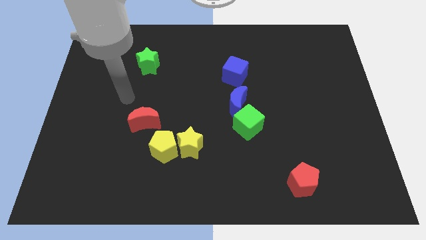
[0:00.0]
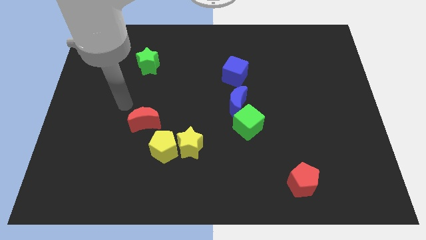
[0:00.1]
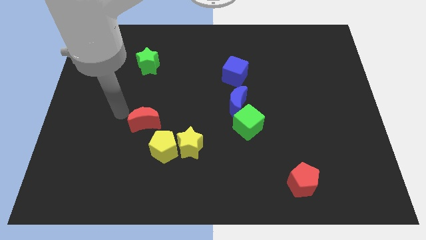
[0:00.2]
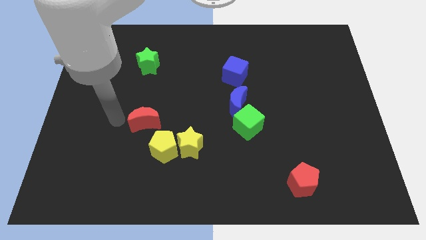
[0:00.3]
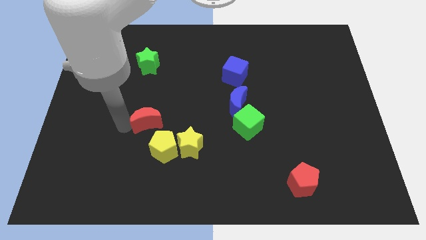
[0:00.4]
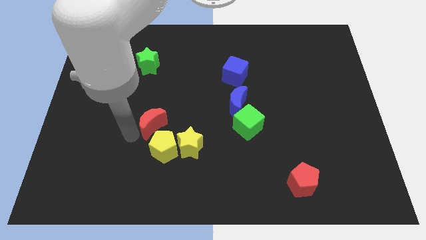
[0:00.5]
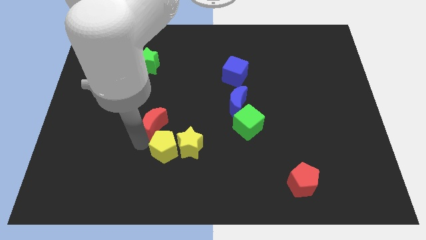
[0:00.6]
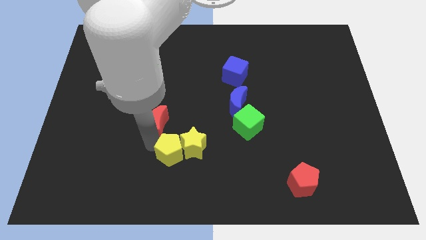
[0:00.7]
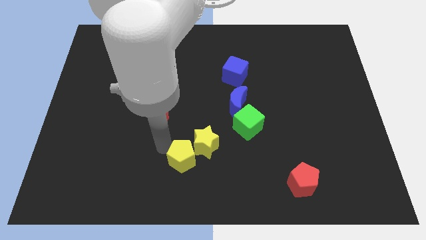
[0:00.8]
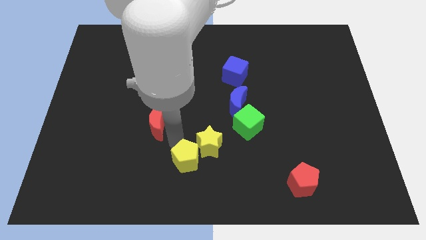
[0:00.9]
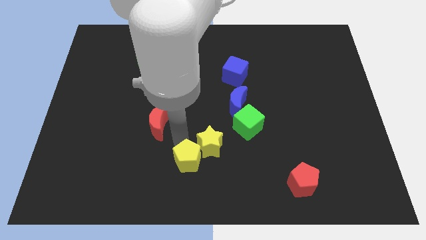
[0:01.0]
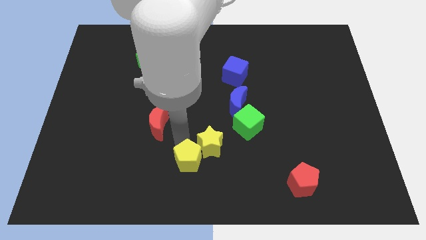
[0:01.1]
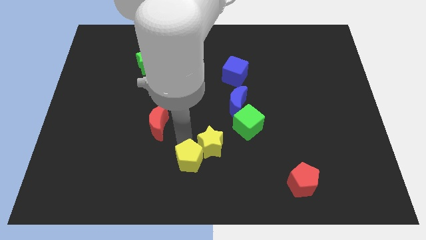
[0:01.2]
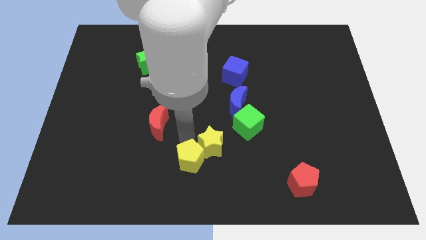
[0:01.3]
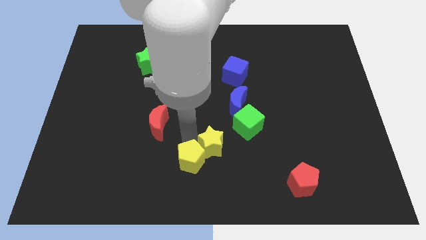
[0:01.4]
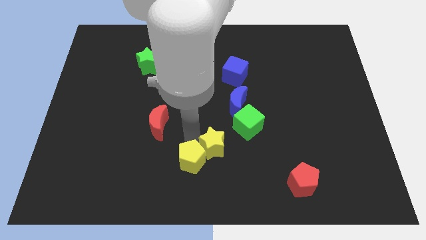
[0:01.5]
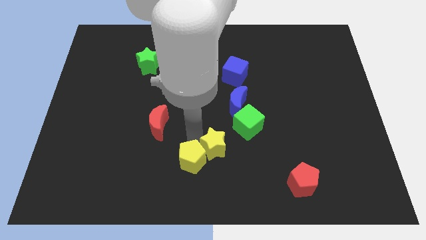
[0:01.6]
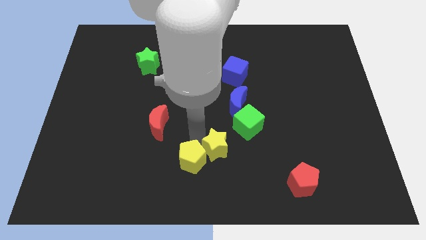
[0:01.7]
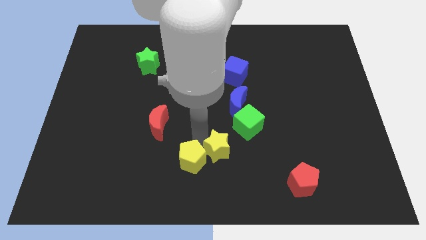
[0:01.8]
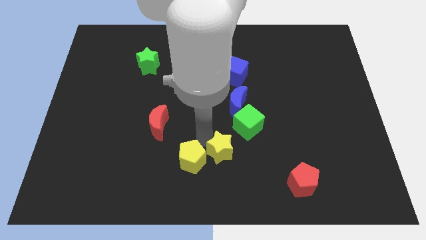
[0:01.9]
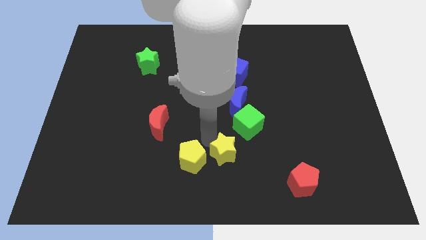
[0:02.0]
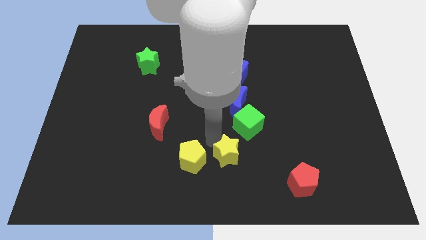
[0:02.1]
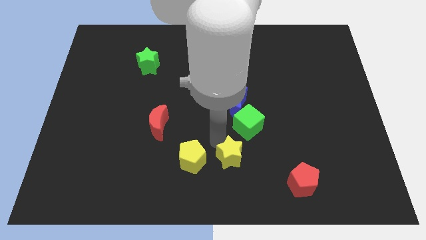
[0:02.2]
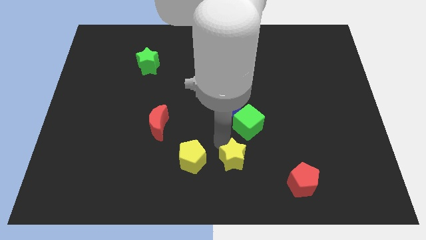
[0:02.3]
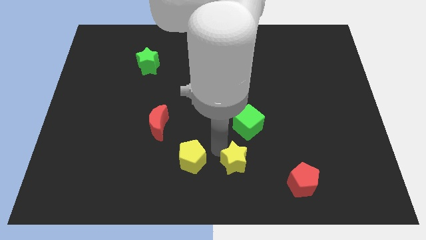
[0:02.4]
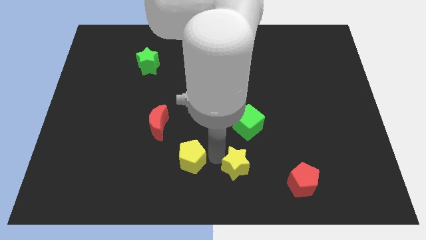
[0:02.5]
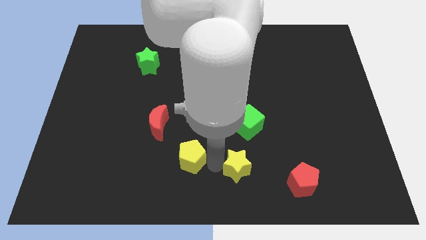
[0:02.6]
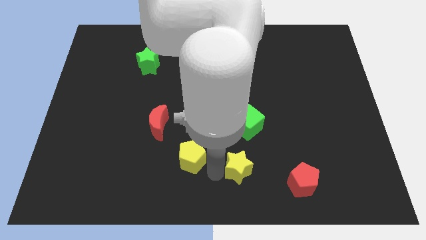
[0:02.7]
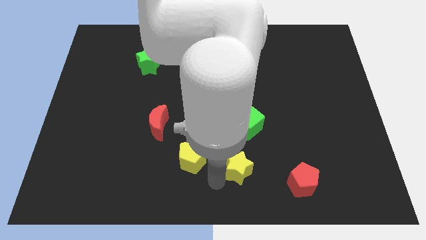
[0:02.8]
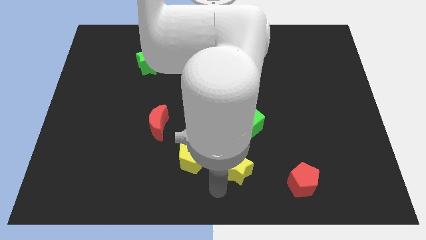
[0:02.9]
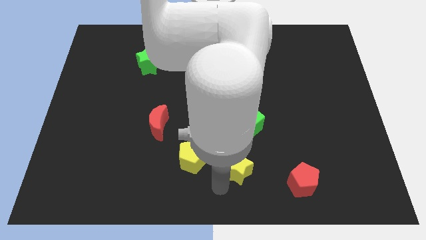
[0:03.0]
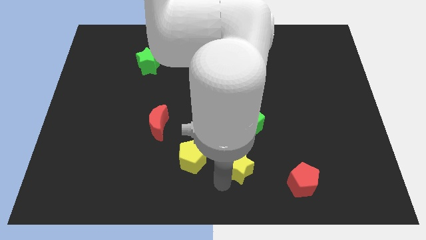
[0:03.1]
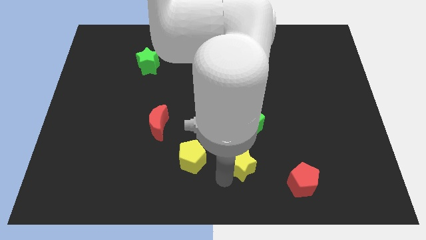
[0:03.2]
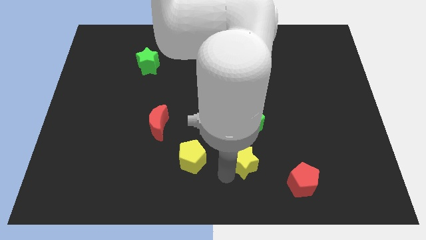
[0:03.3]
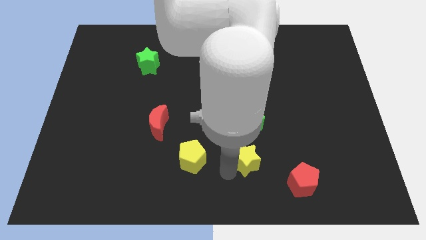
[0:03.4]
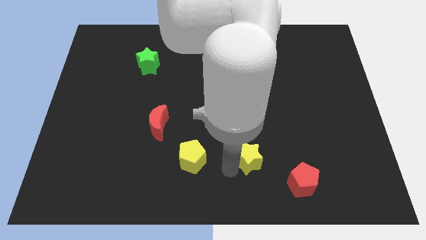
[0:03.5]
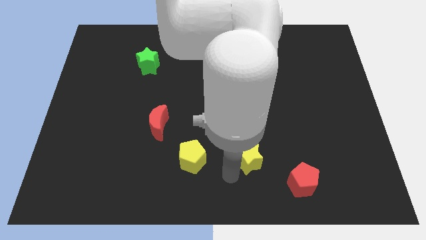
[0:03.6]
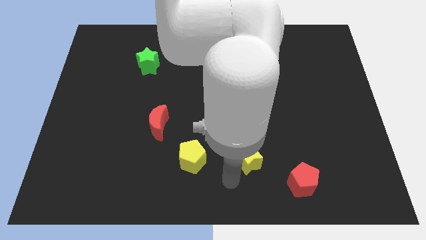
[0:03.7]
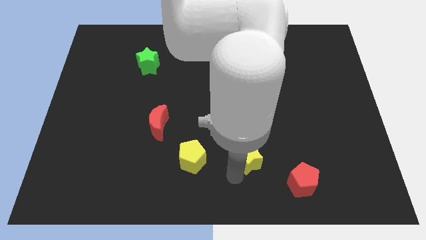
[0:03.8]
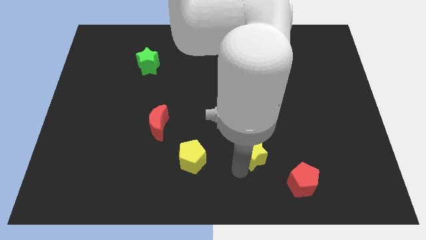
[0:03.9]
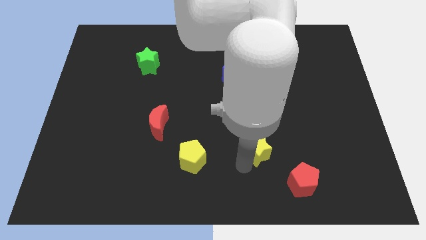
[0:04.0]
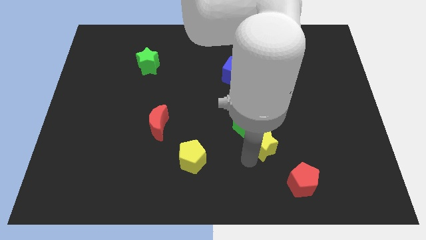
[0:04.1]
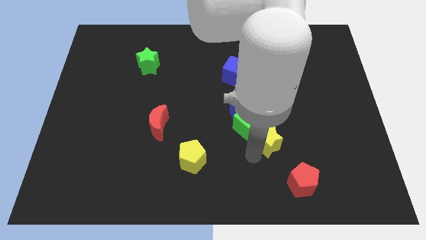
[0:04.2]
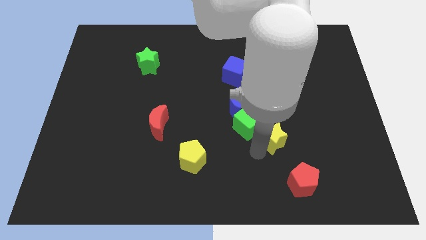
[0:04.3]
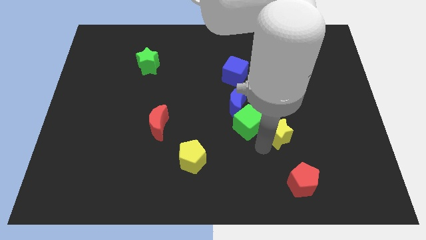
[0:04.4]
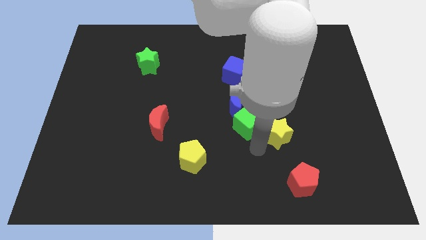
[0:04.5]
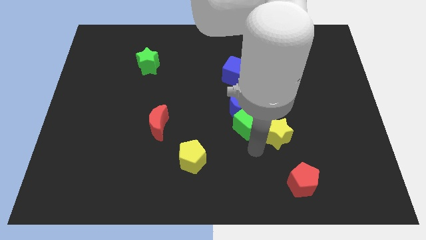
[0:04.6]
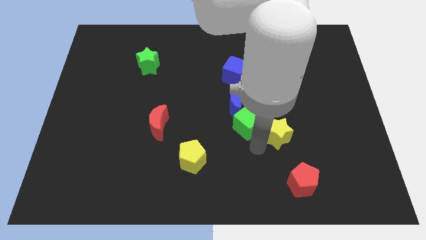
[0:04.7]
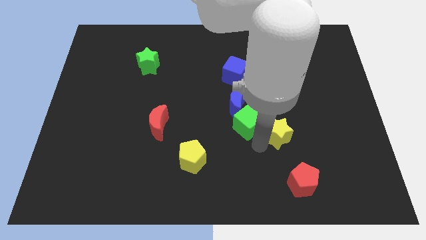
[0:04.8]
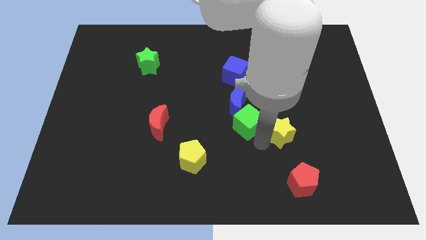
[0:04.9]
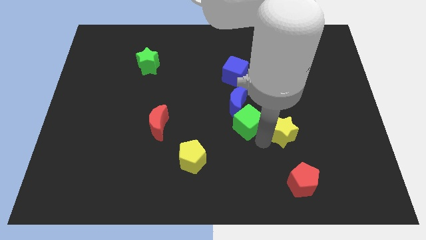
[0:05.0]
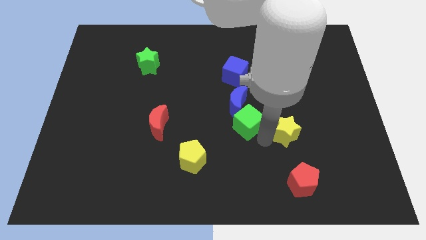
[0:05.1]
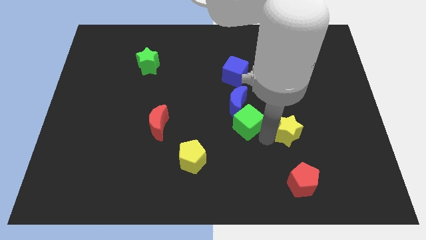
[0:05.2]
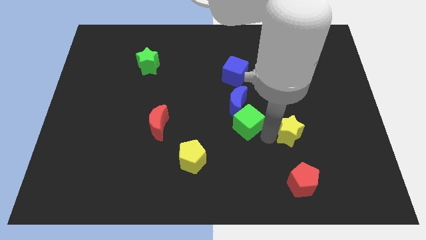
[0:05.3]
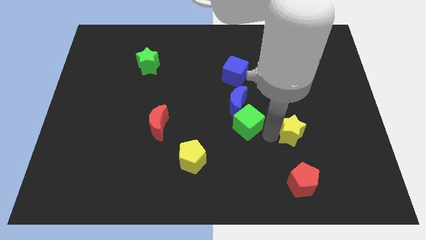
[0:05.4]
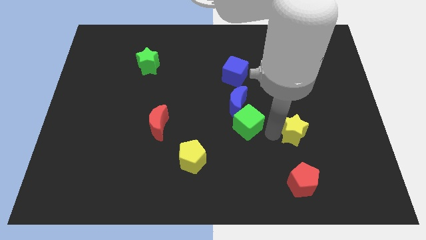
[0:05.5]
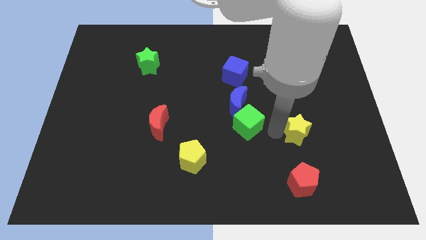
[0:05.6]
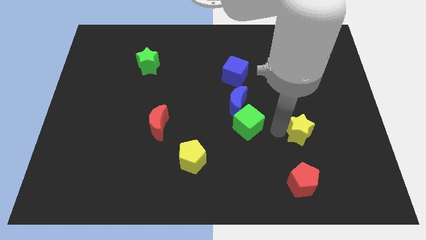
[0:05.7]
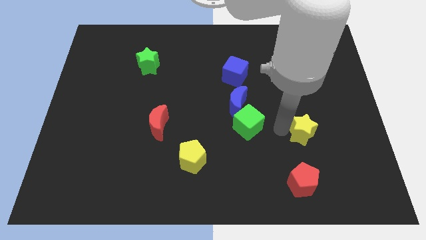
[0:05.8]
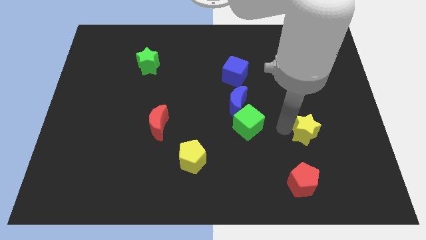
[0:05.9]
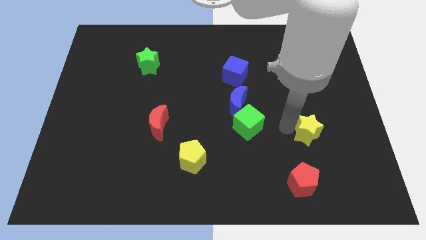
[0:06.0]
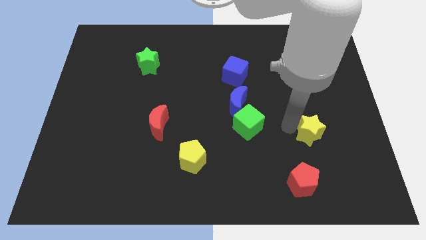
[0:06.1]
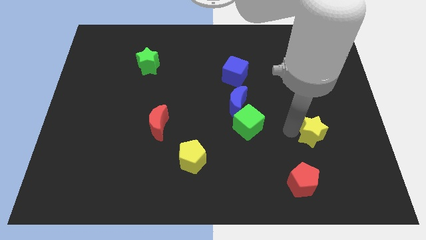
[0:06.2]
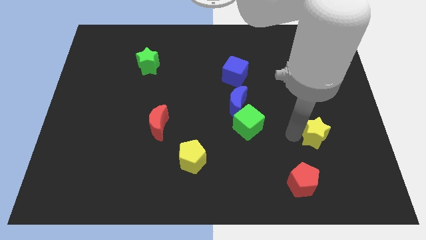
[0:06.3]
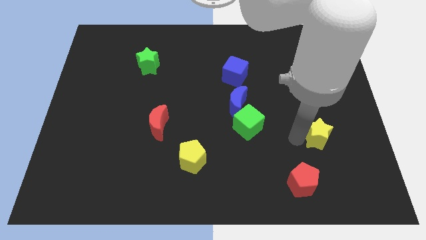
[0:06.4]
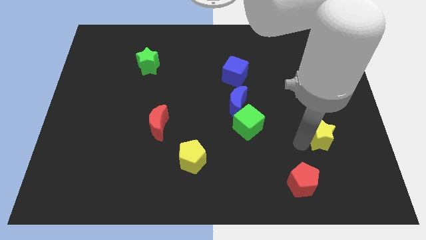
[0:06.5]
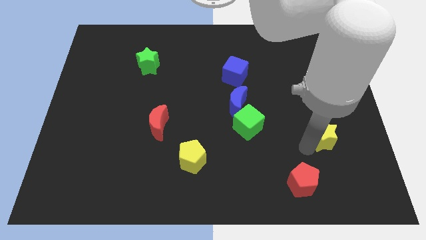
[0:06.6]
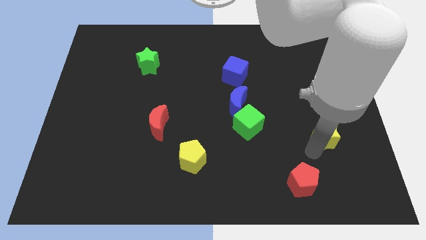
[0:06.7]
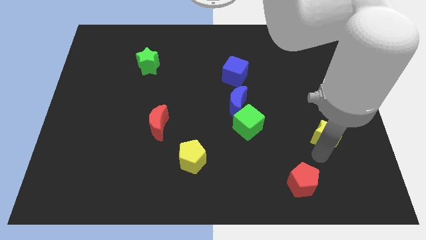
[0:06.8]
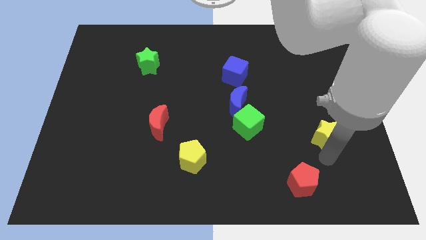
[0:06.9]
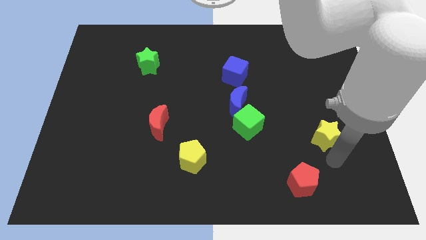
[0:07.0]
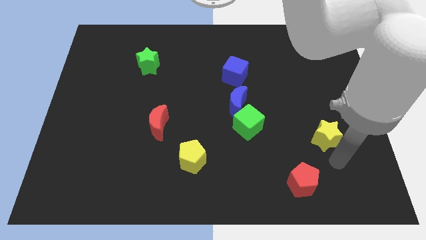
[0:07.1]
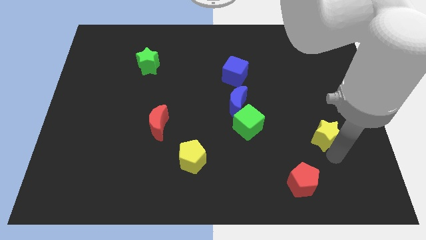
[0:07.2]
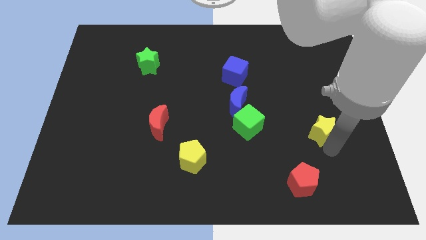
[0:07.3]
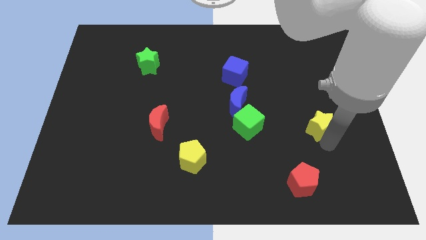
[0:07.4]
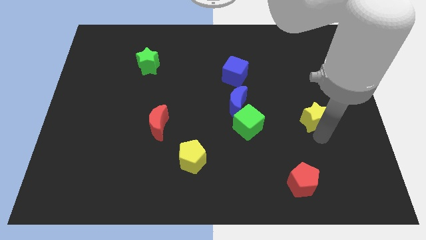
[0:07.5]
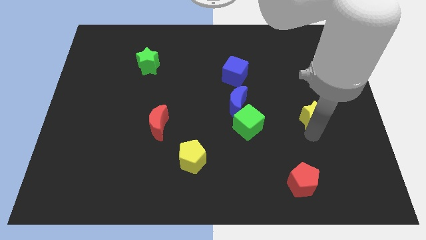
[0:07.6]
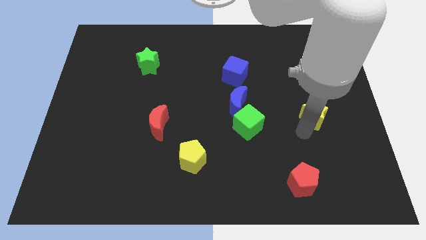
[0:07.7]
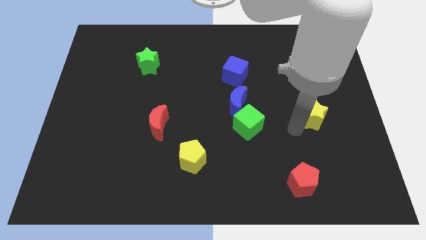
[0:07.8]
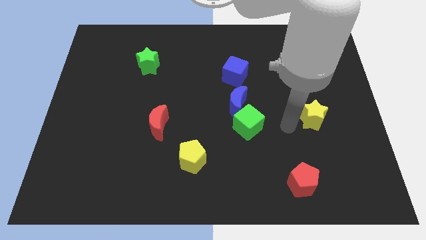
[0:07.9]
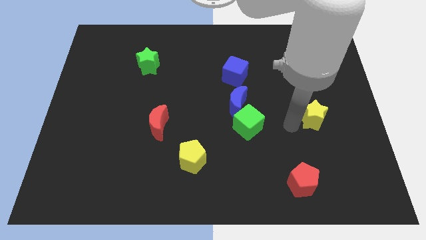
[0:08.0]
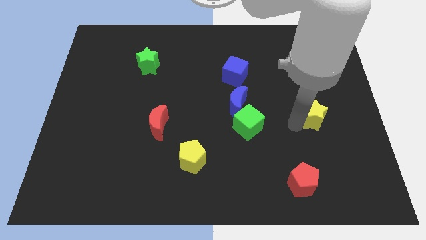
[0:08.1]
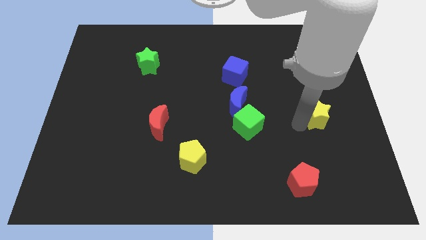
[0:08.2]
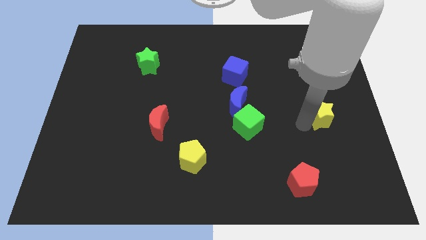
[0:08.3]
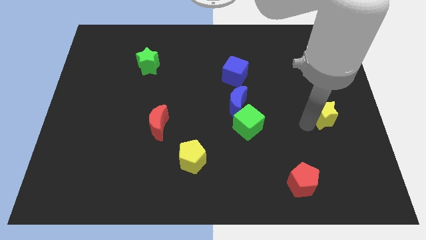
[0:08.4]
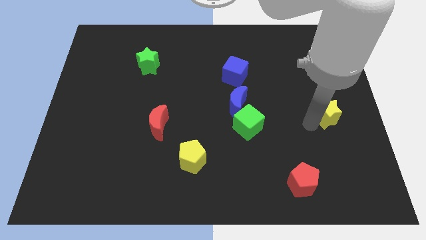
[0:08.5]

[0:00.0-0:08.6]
put the yellow star to the center right
